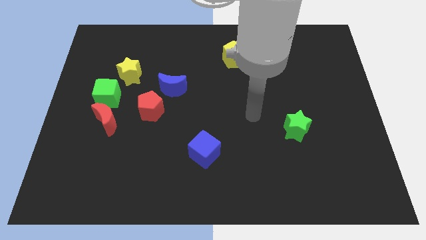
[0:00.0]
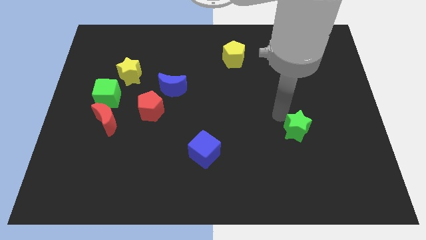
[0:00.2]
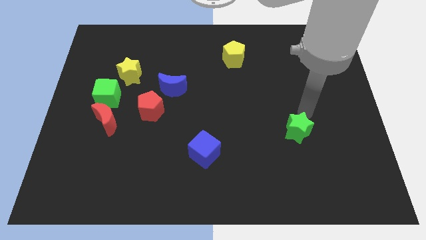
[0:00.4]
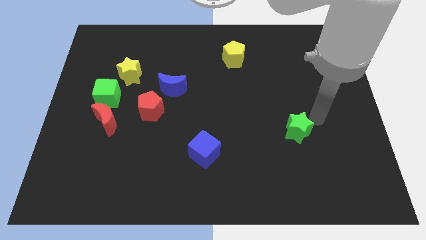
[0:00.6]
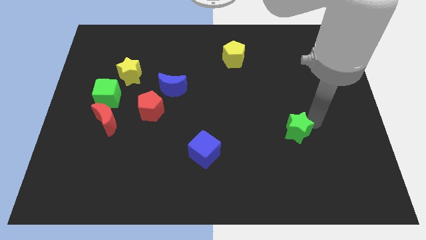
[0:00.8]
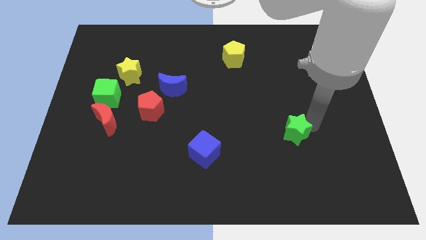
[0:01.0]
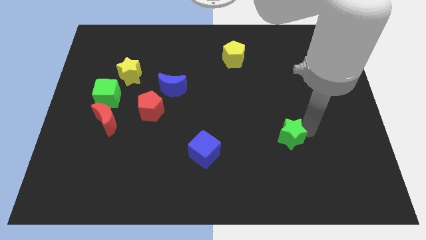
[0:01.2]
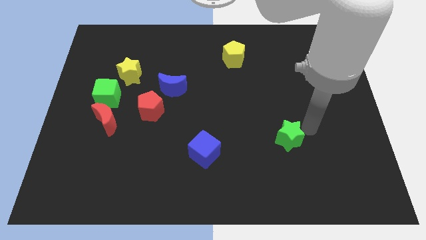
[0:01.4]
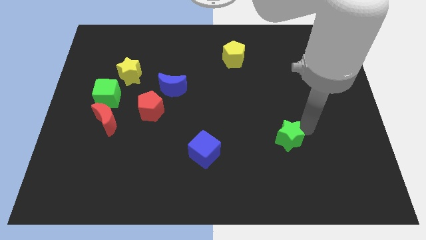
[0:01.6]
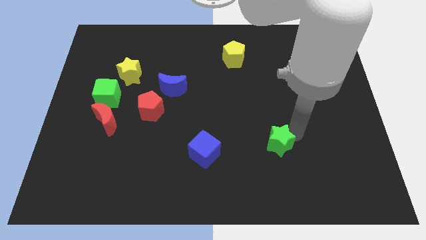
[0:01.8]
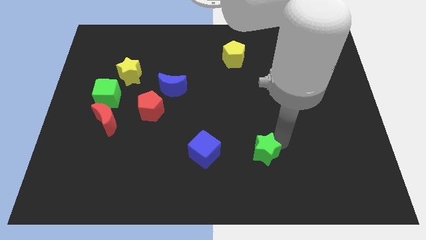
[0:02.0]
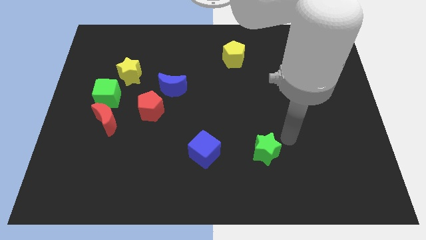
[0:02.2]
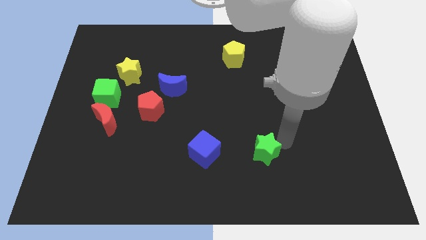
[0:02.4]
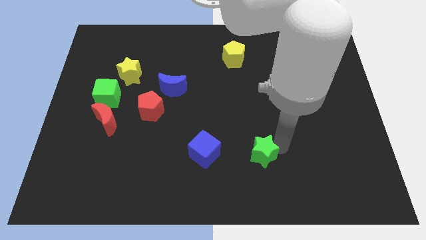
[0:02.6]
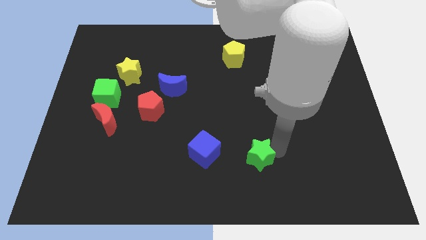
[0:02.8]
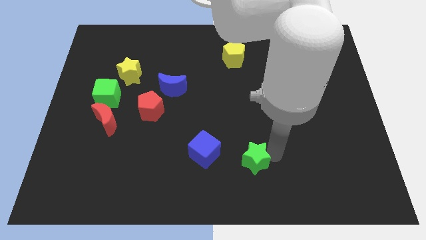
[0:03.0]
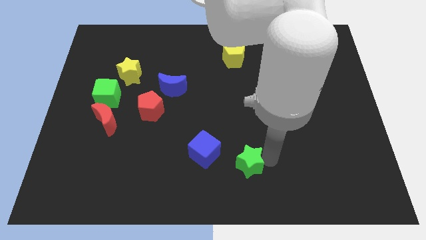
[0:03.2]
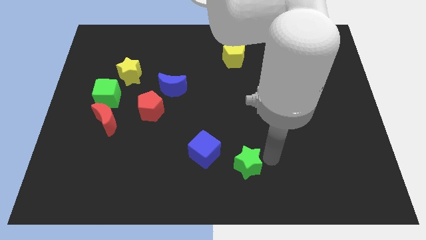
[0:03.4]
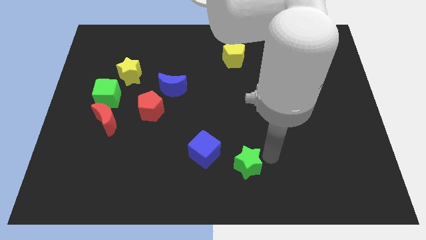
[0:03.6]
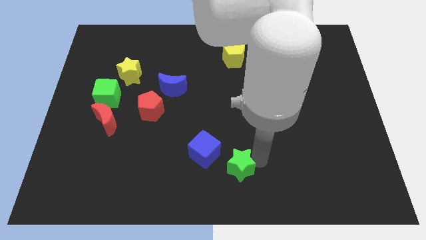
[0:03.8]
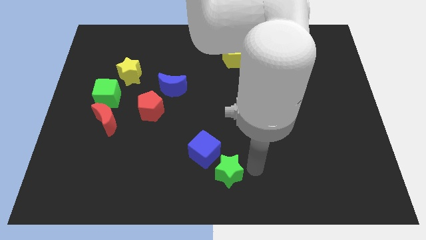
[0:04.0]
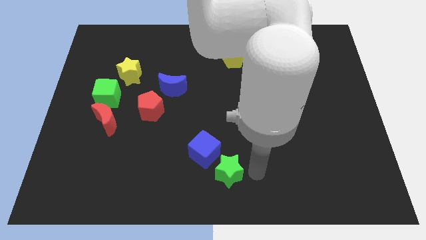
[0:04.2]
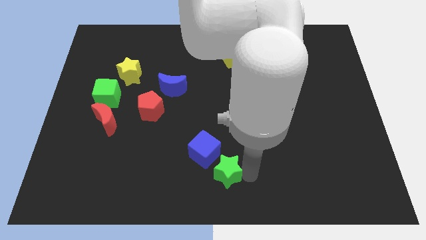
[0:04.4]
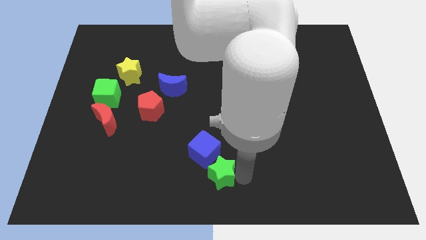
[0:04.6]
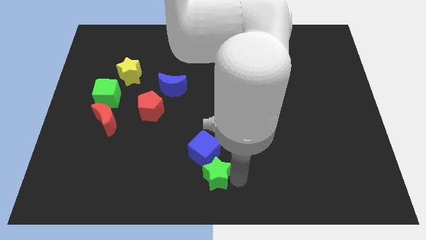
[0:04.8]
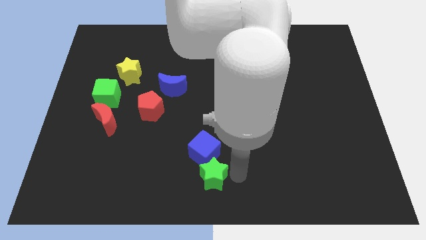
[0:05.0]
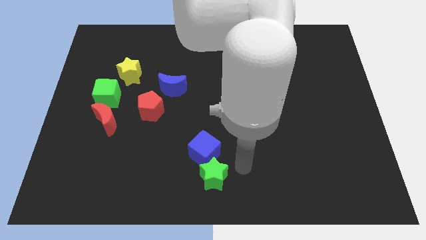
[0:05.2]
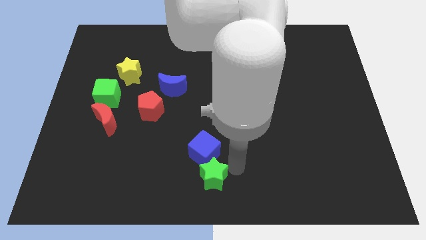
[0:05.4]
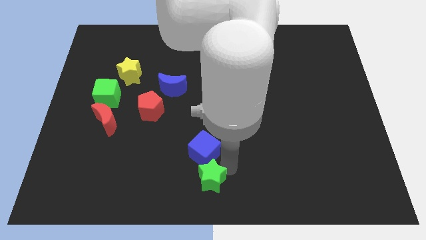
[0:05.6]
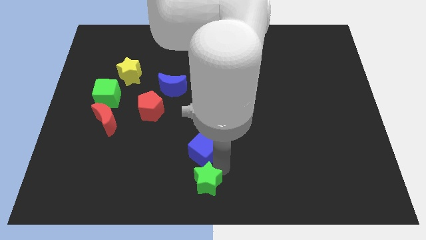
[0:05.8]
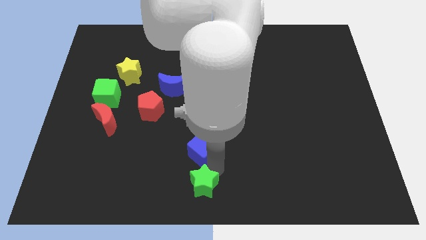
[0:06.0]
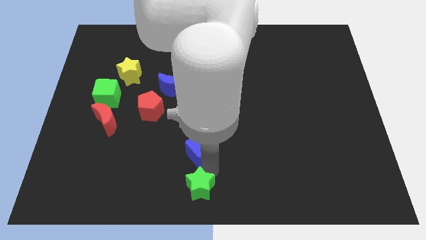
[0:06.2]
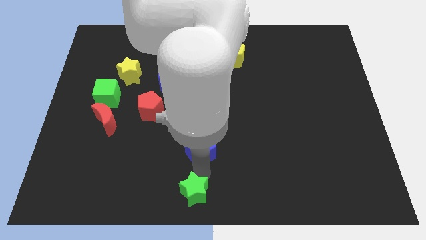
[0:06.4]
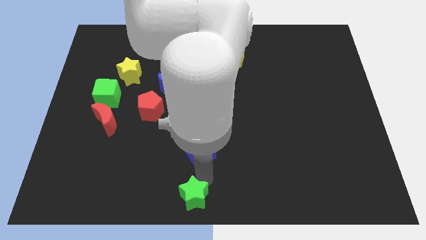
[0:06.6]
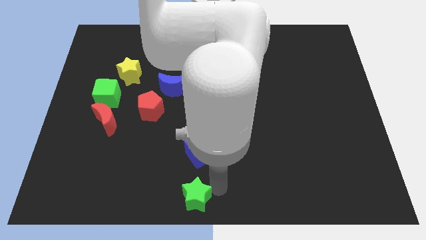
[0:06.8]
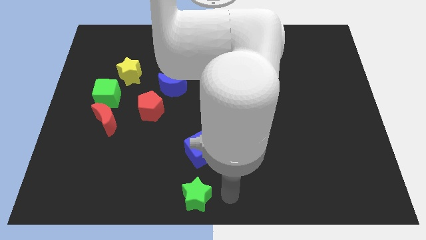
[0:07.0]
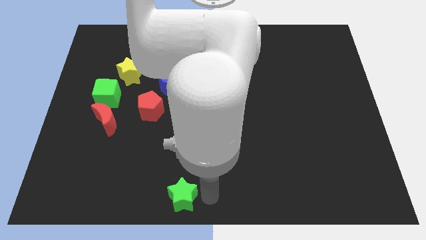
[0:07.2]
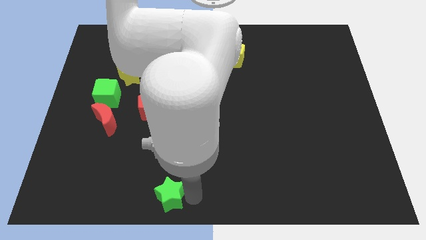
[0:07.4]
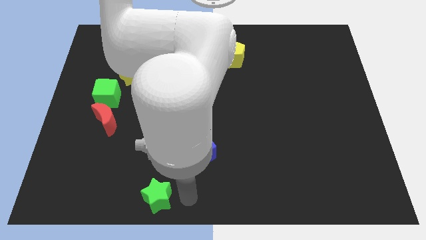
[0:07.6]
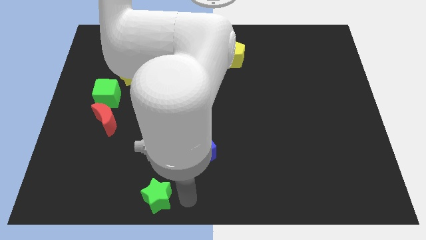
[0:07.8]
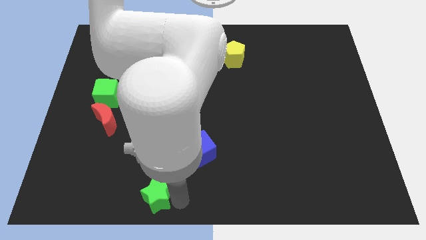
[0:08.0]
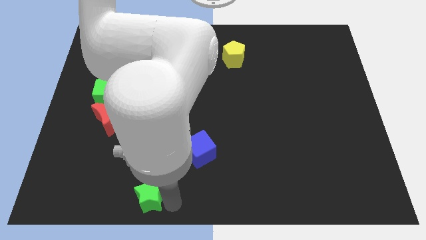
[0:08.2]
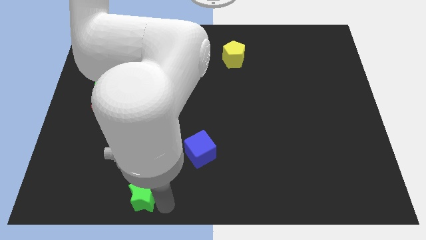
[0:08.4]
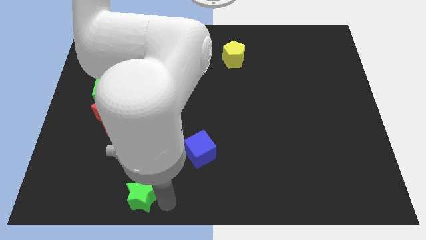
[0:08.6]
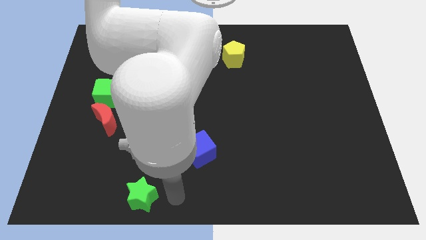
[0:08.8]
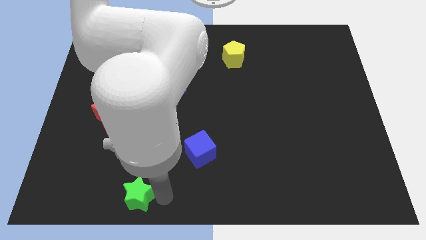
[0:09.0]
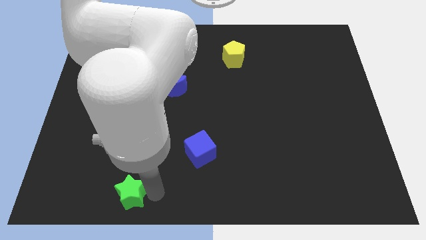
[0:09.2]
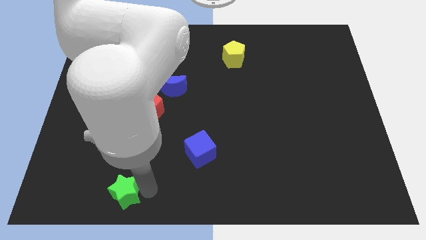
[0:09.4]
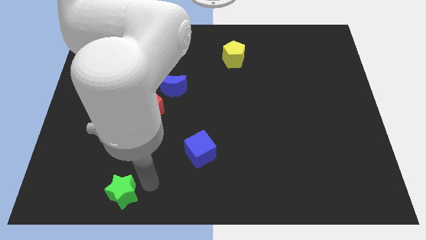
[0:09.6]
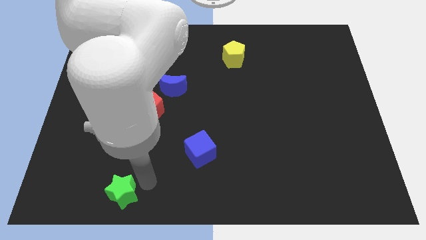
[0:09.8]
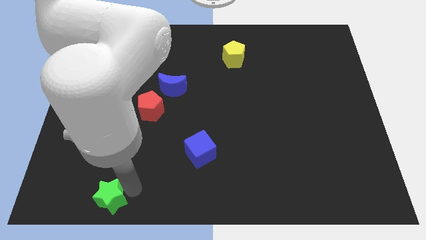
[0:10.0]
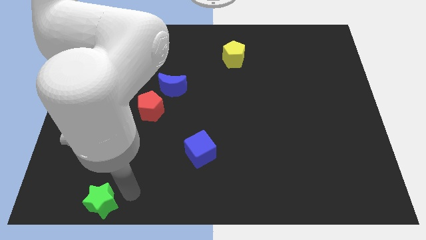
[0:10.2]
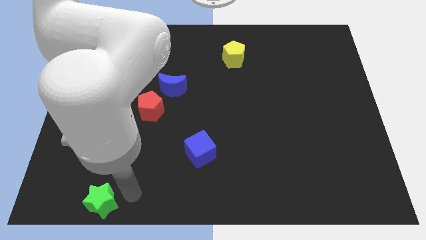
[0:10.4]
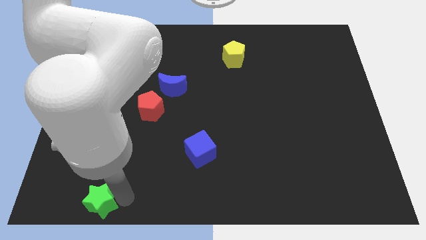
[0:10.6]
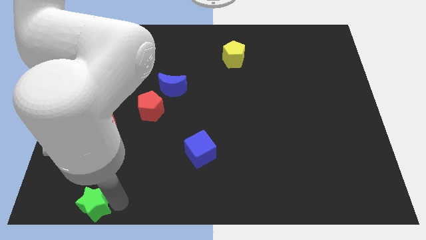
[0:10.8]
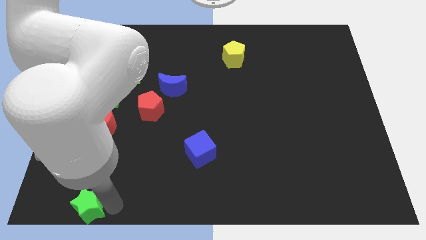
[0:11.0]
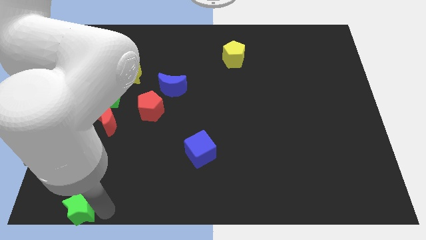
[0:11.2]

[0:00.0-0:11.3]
slide the green star to the lower left corner
